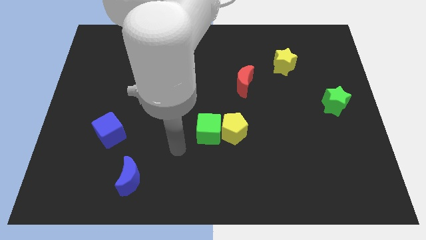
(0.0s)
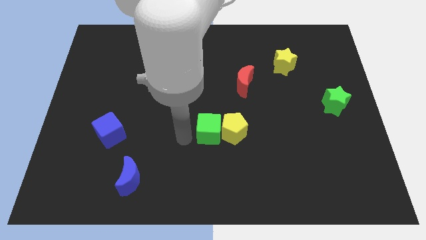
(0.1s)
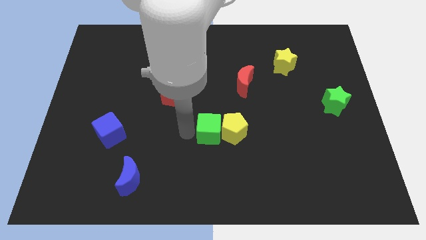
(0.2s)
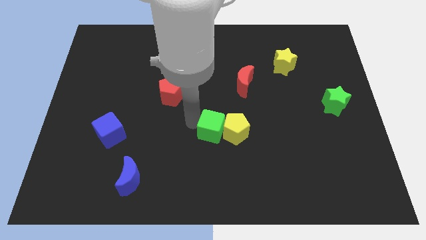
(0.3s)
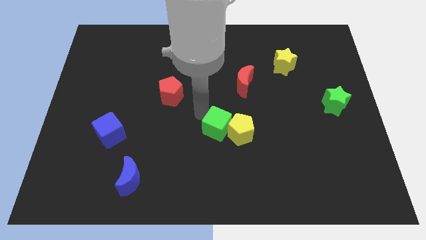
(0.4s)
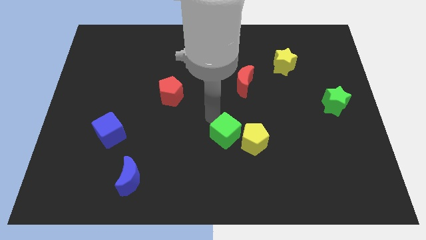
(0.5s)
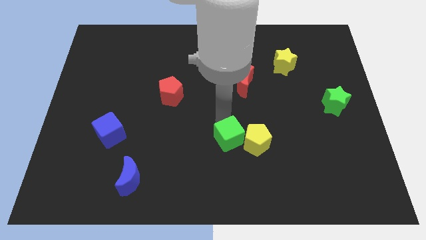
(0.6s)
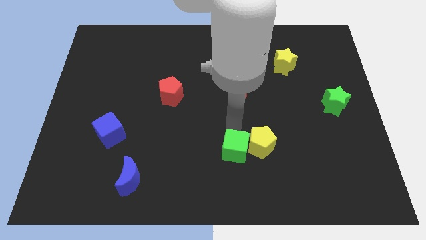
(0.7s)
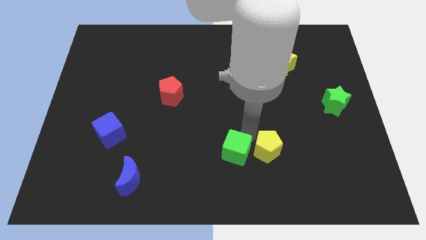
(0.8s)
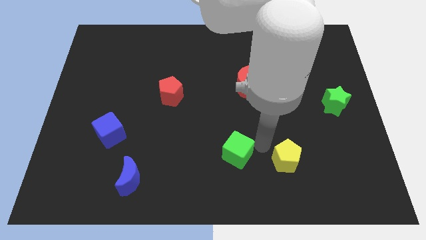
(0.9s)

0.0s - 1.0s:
pull the green cube apart from the yellow pentagon

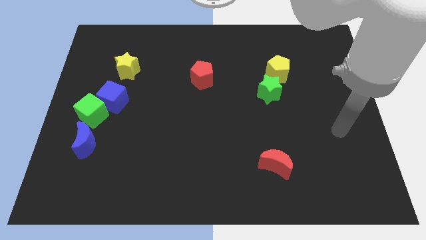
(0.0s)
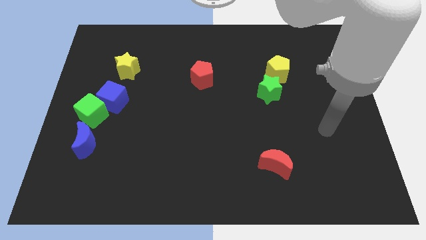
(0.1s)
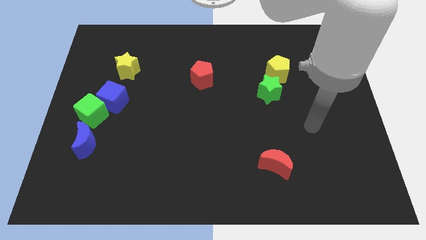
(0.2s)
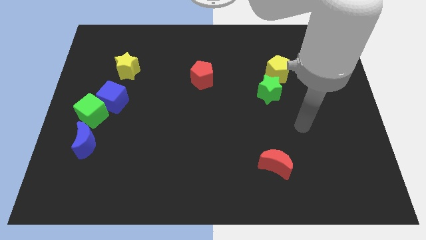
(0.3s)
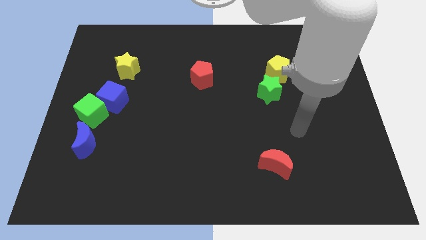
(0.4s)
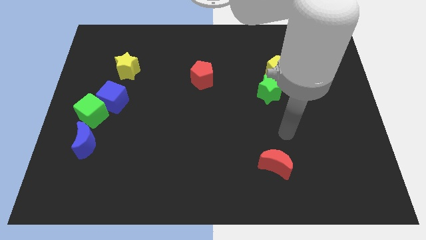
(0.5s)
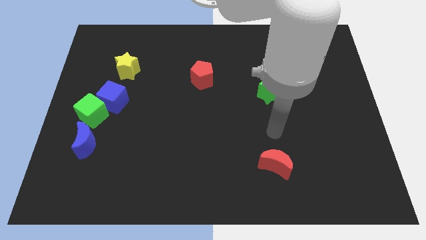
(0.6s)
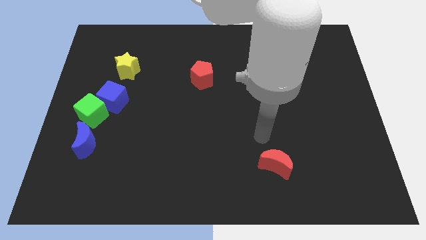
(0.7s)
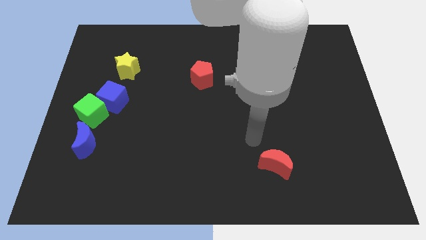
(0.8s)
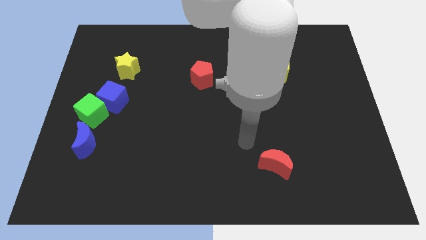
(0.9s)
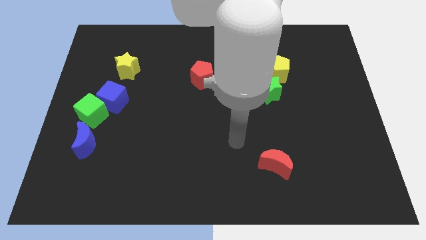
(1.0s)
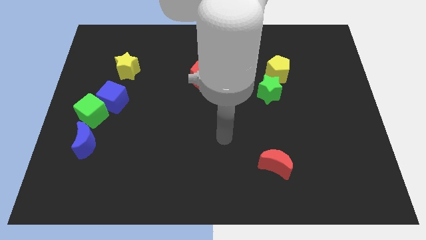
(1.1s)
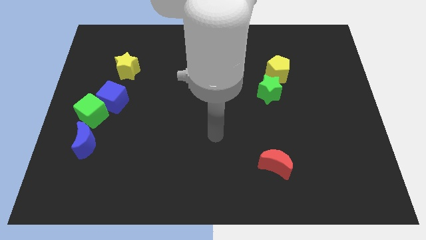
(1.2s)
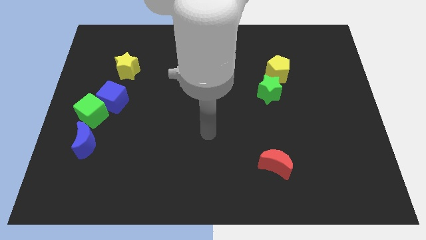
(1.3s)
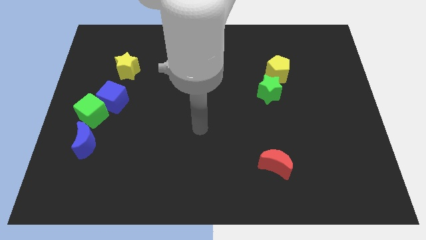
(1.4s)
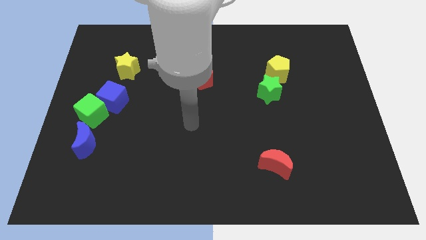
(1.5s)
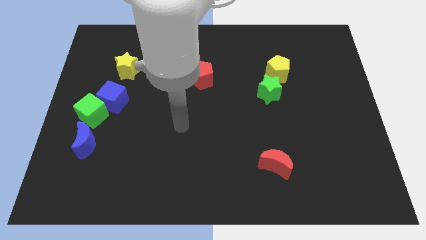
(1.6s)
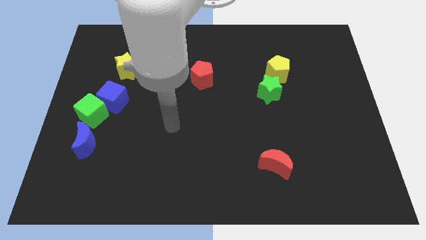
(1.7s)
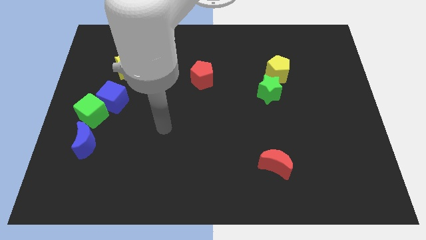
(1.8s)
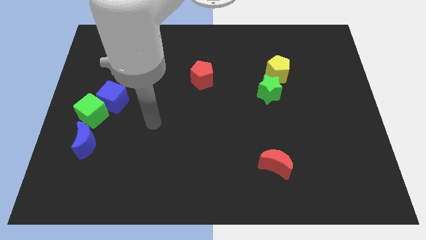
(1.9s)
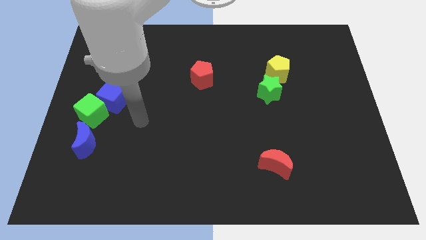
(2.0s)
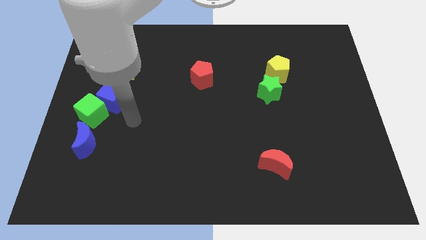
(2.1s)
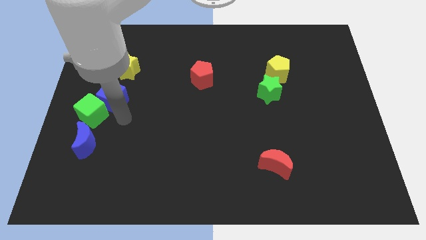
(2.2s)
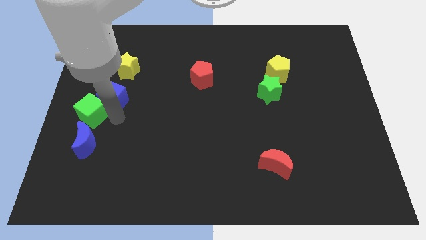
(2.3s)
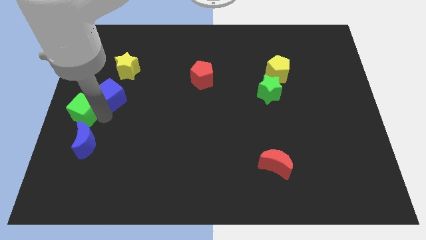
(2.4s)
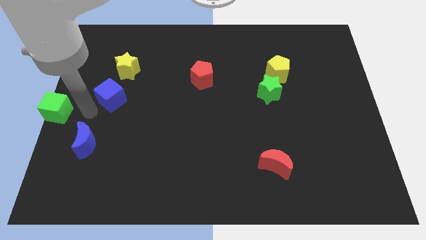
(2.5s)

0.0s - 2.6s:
move the blue cube away from the green cube

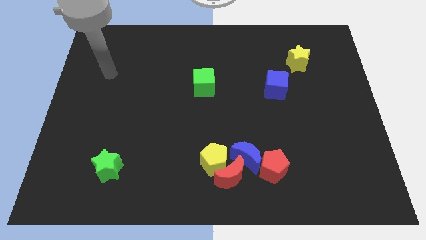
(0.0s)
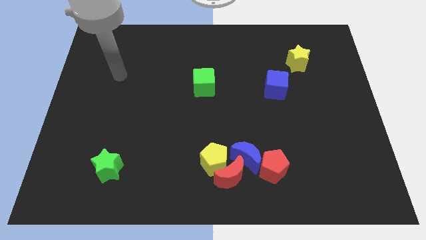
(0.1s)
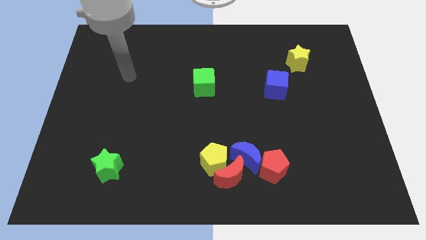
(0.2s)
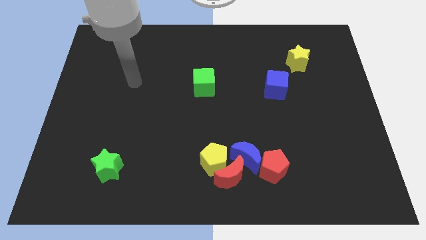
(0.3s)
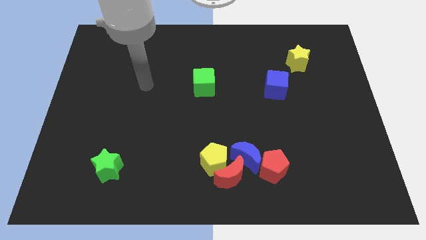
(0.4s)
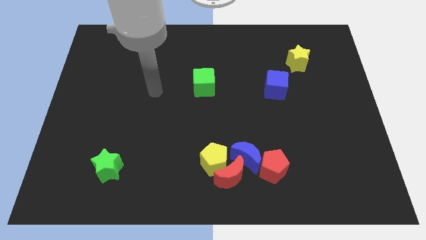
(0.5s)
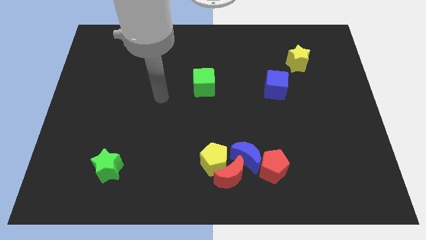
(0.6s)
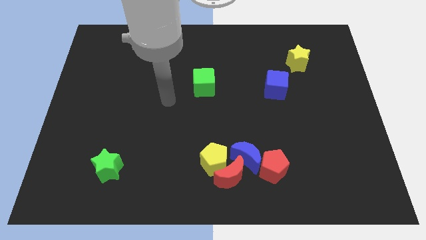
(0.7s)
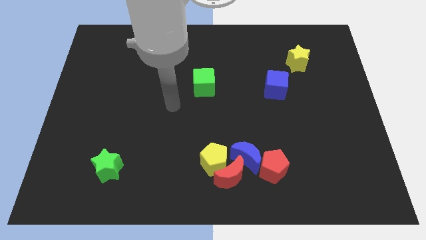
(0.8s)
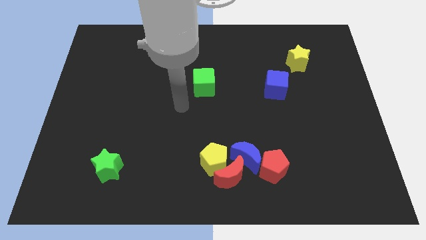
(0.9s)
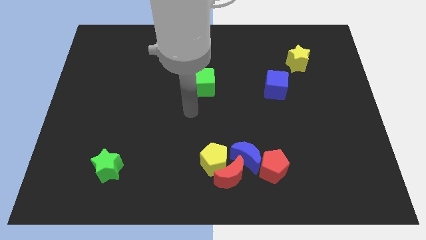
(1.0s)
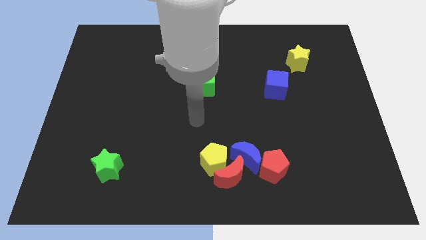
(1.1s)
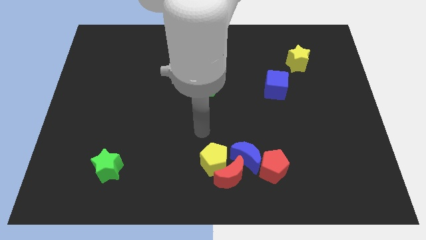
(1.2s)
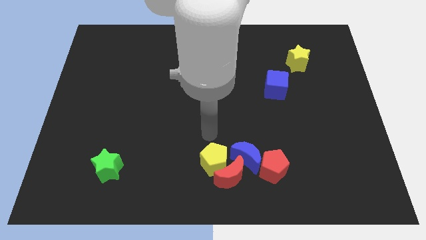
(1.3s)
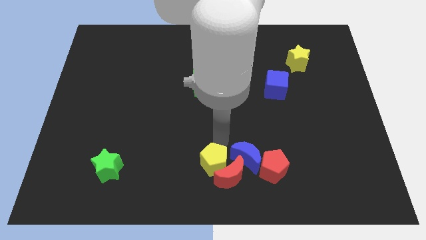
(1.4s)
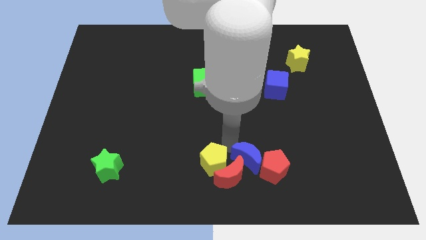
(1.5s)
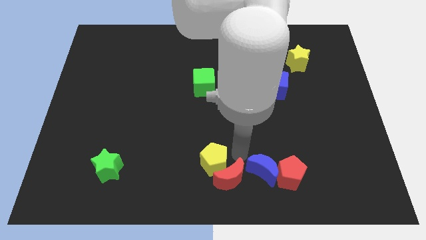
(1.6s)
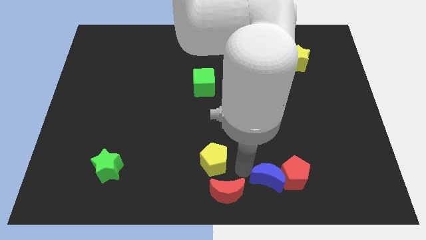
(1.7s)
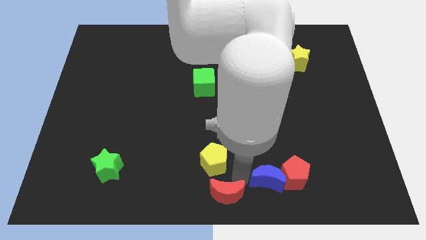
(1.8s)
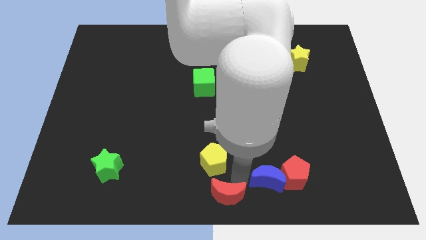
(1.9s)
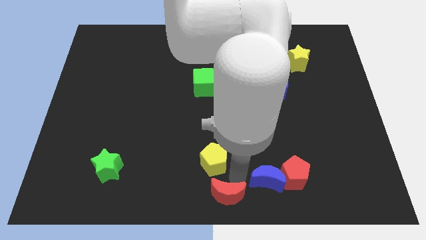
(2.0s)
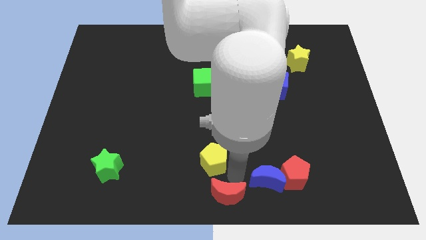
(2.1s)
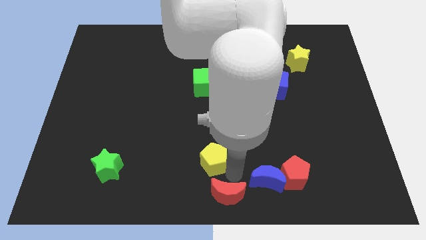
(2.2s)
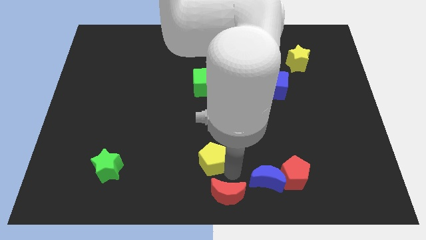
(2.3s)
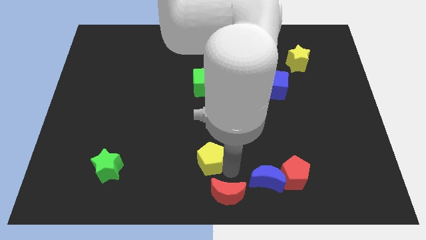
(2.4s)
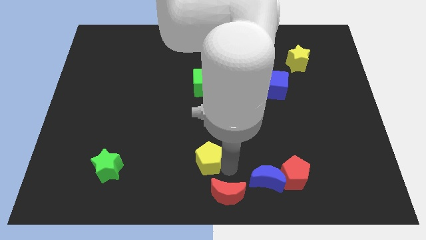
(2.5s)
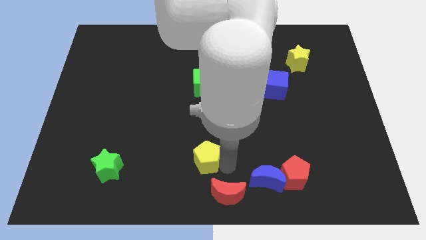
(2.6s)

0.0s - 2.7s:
pull the yellow pentagon apart from the red moon and blue moon

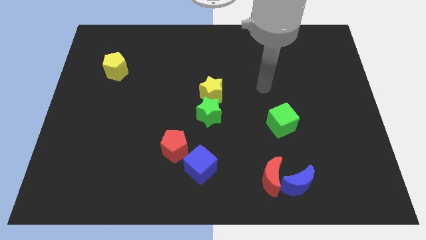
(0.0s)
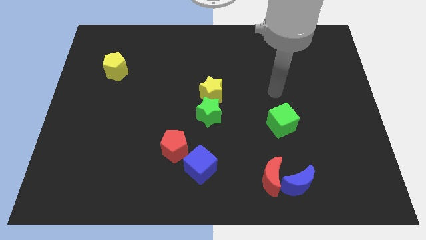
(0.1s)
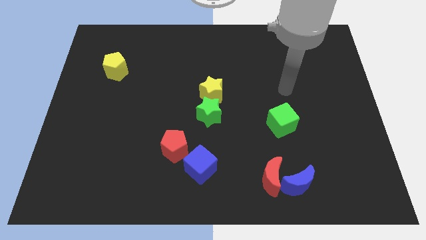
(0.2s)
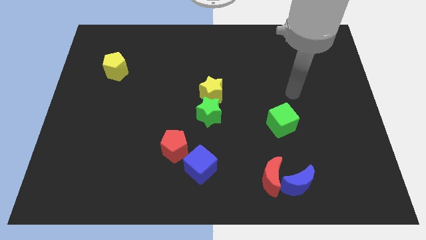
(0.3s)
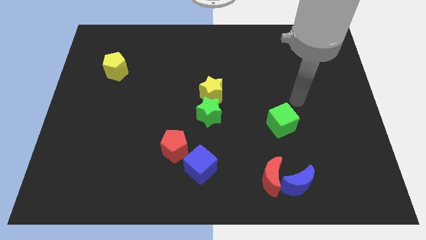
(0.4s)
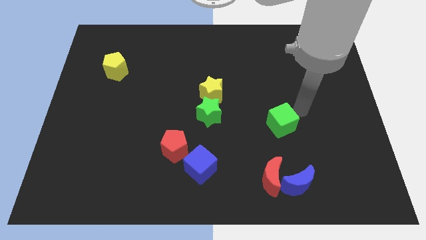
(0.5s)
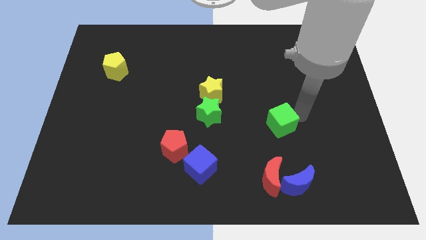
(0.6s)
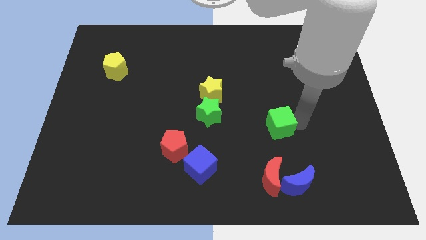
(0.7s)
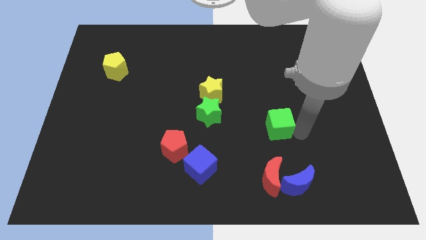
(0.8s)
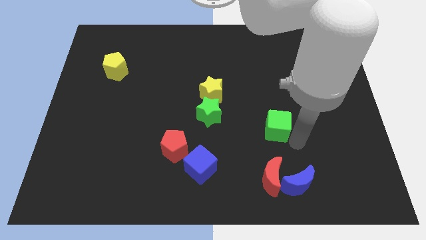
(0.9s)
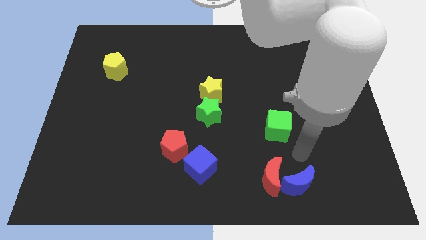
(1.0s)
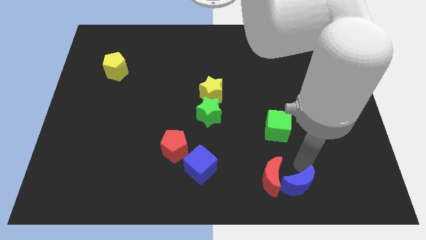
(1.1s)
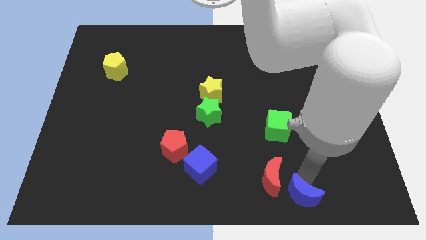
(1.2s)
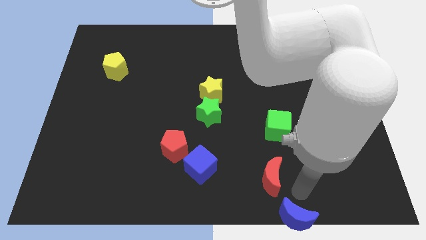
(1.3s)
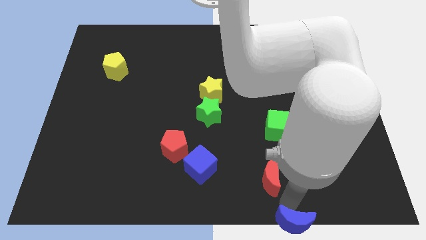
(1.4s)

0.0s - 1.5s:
separate the red moon from the blue moon

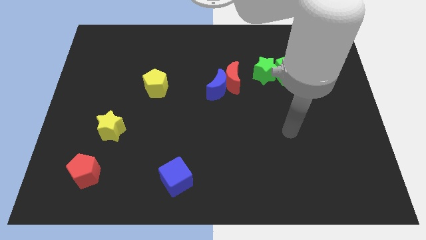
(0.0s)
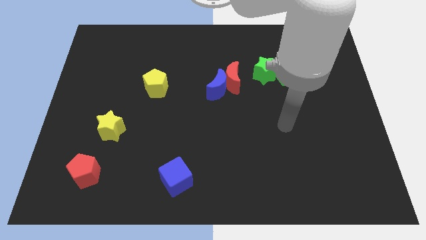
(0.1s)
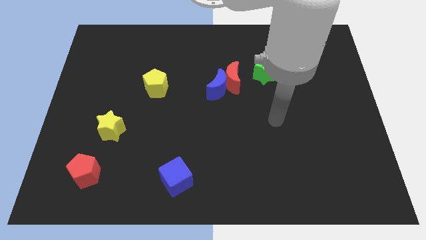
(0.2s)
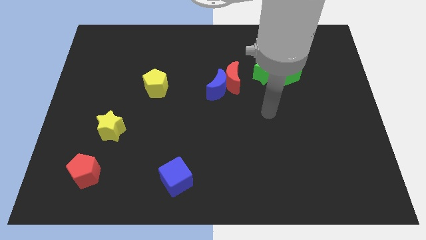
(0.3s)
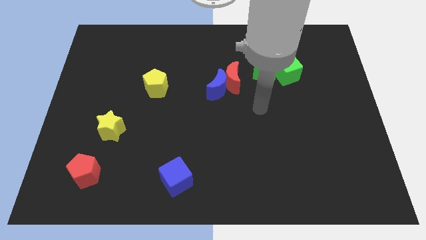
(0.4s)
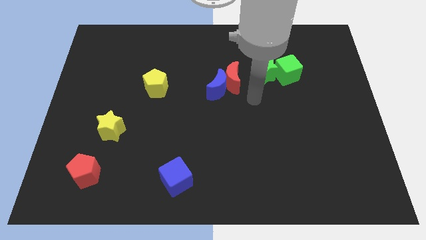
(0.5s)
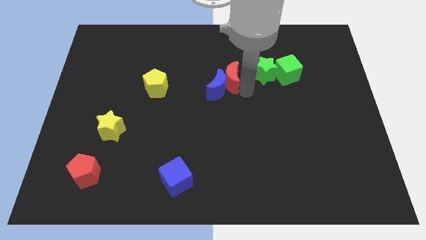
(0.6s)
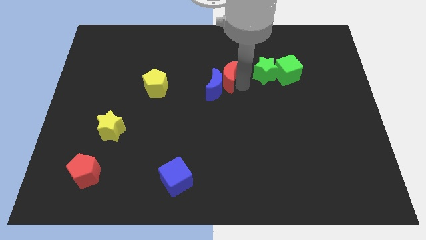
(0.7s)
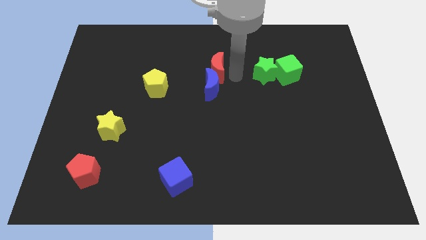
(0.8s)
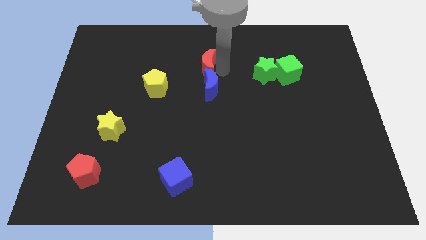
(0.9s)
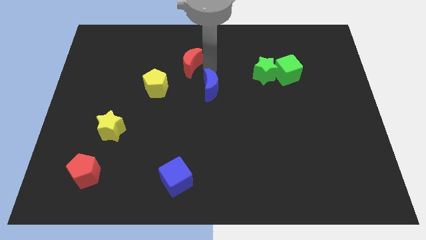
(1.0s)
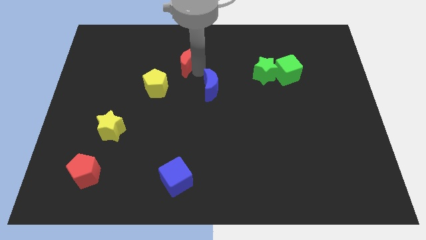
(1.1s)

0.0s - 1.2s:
pull the blue moon apart from the red moon

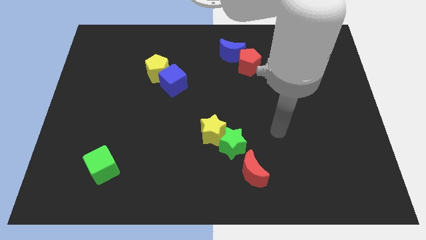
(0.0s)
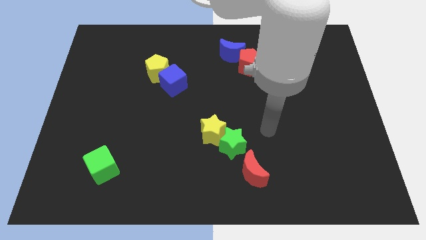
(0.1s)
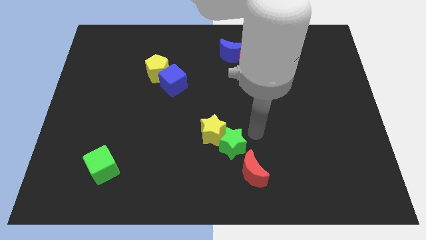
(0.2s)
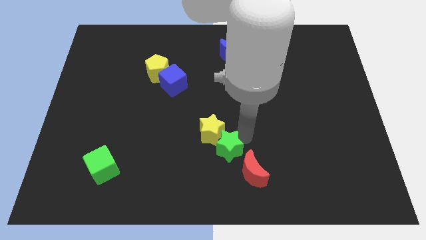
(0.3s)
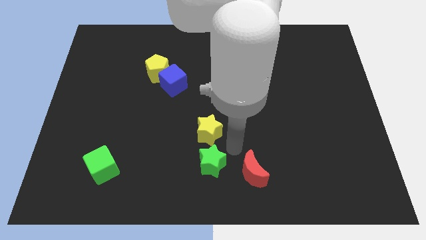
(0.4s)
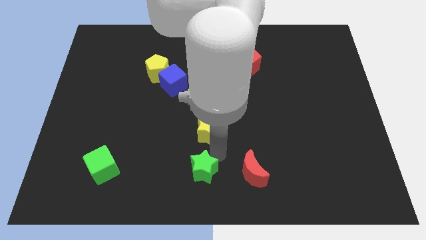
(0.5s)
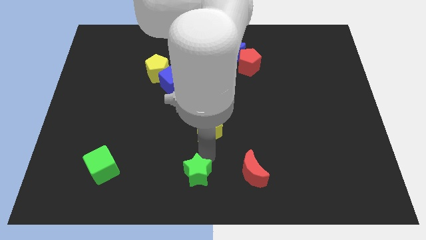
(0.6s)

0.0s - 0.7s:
move the yellow star away from the green star
